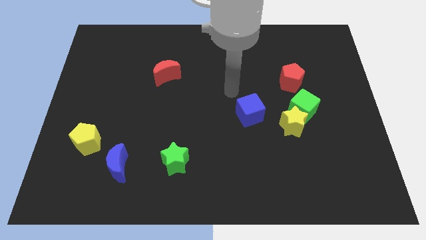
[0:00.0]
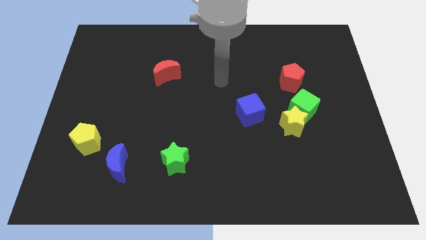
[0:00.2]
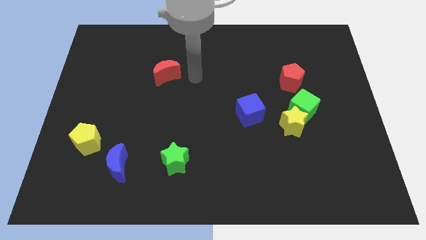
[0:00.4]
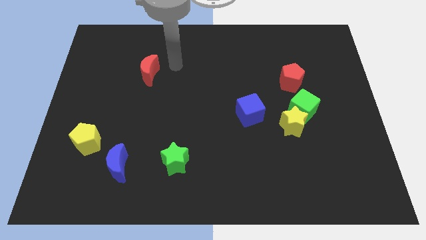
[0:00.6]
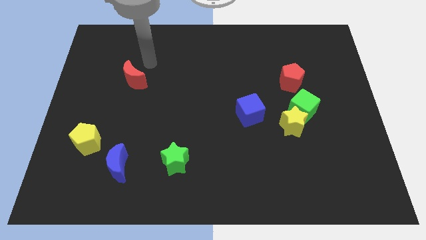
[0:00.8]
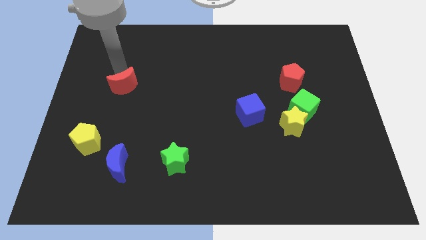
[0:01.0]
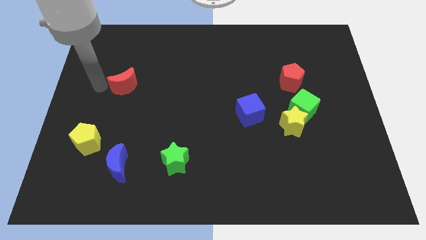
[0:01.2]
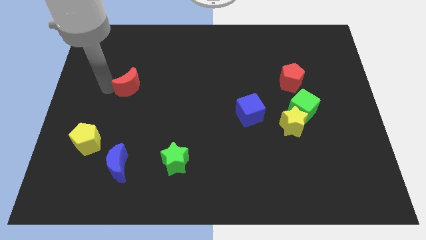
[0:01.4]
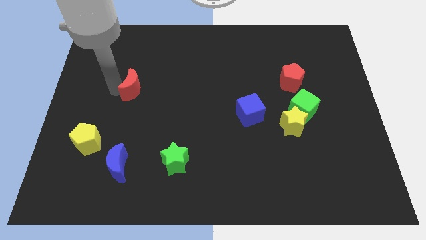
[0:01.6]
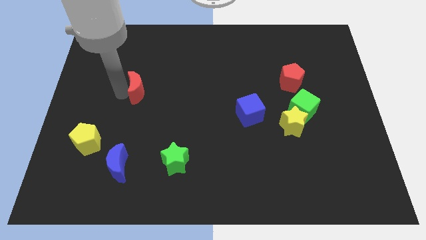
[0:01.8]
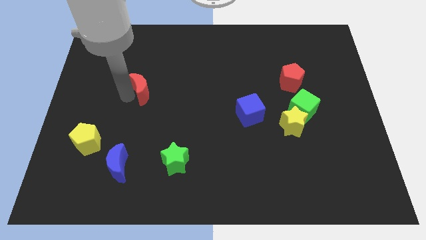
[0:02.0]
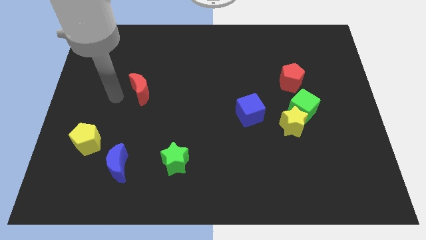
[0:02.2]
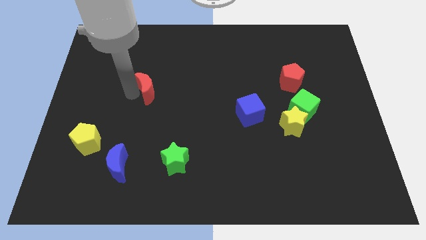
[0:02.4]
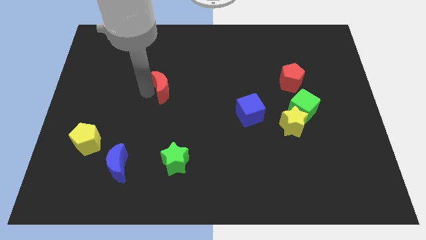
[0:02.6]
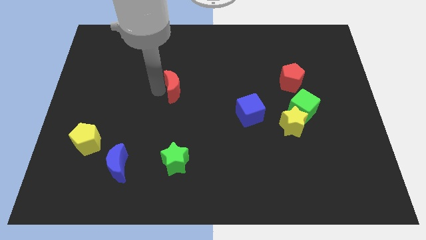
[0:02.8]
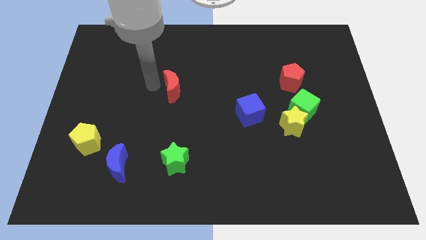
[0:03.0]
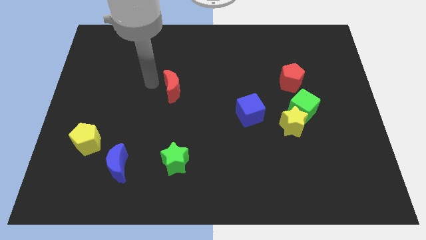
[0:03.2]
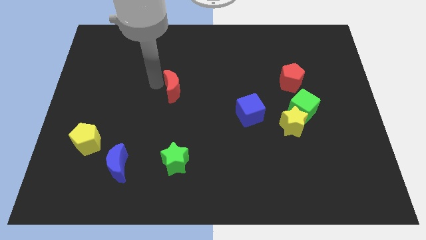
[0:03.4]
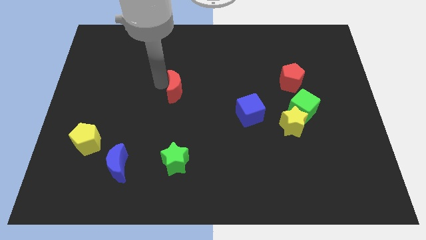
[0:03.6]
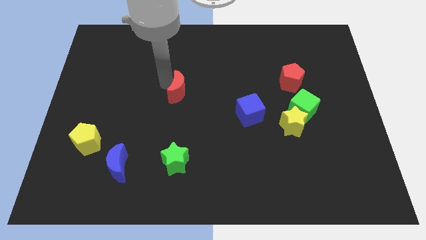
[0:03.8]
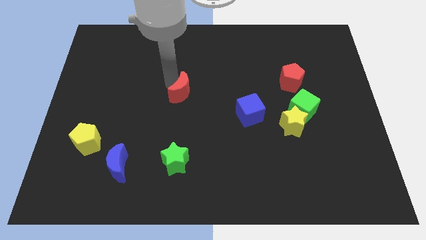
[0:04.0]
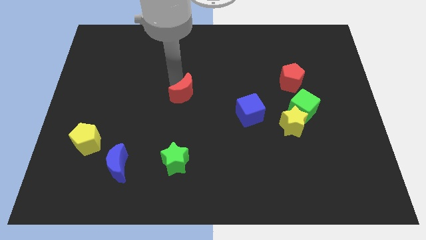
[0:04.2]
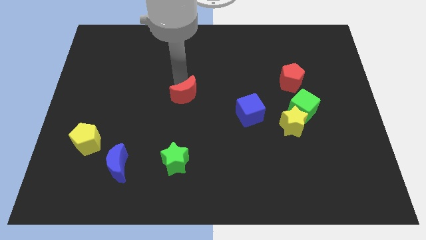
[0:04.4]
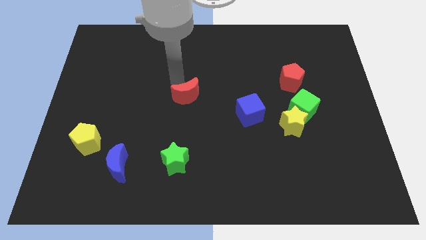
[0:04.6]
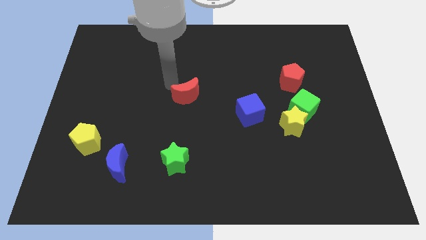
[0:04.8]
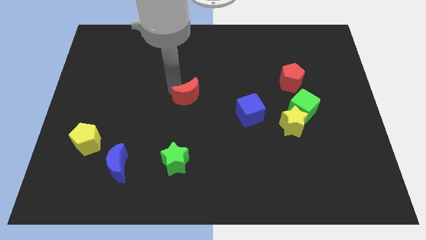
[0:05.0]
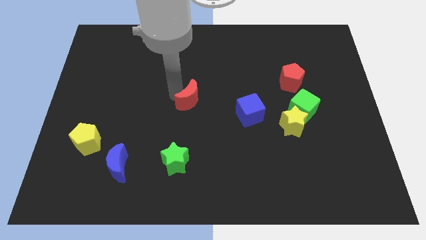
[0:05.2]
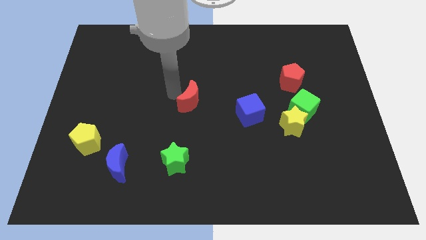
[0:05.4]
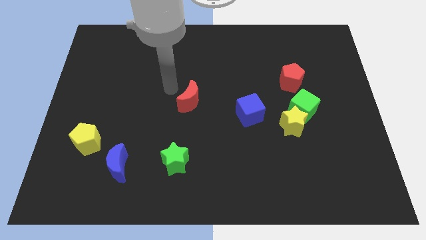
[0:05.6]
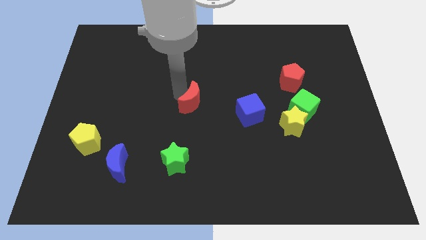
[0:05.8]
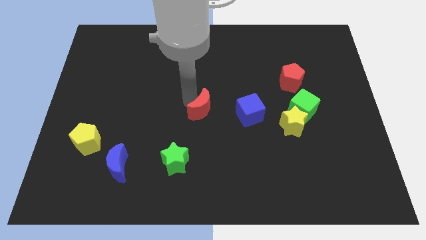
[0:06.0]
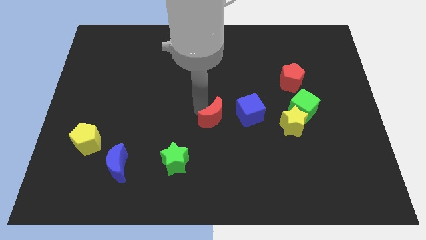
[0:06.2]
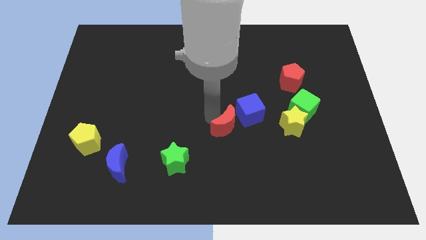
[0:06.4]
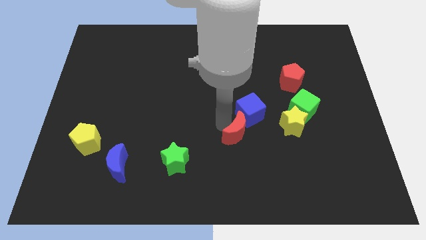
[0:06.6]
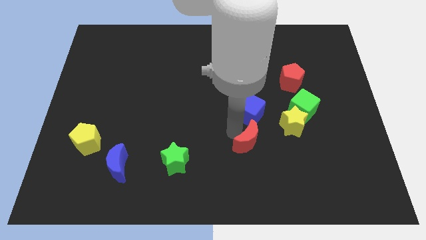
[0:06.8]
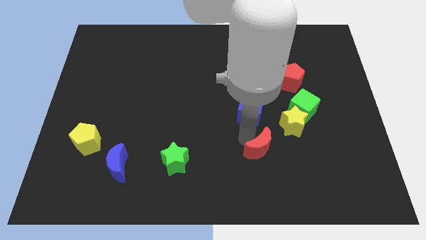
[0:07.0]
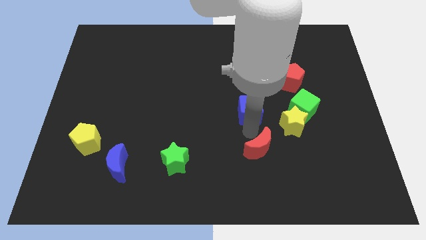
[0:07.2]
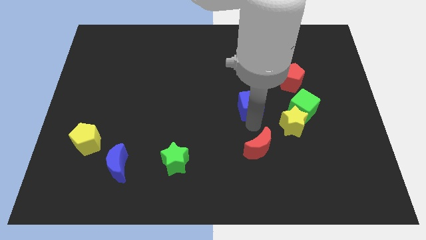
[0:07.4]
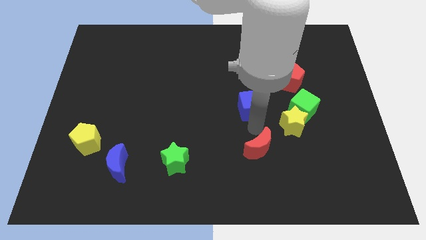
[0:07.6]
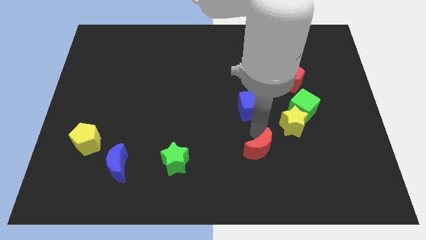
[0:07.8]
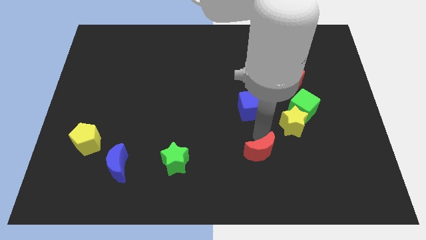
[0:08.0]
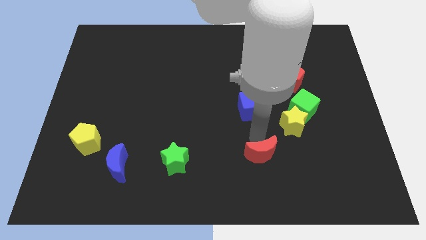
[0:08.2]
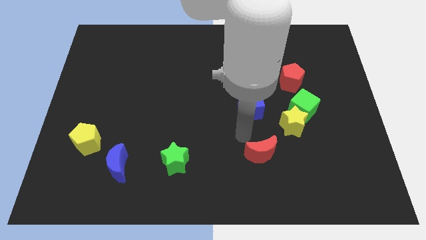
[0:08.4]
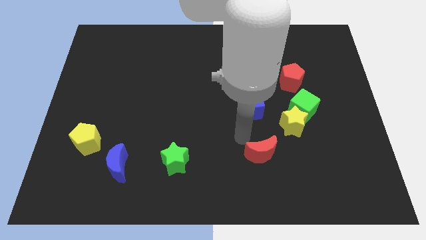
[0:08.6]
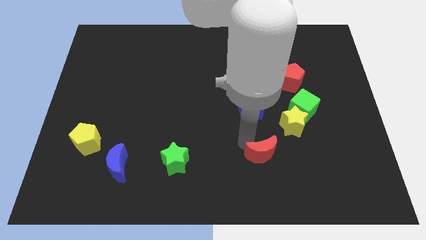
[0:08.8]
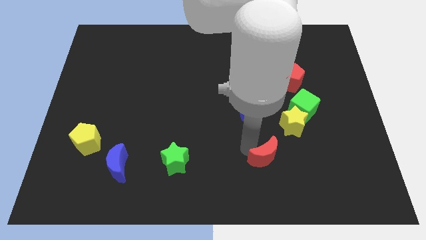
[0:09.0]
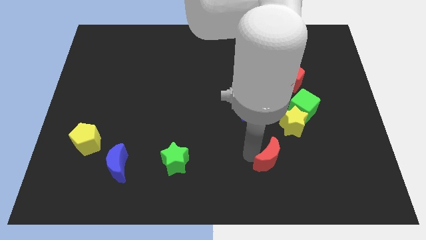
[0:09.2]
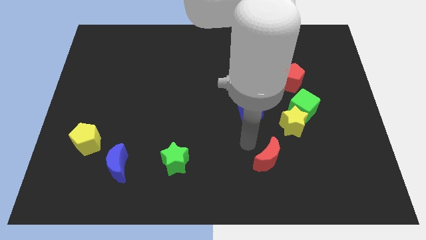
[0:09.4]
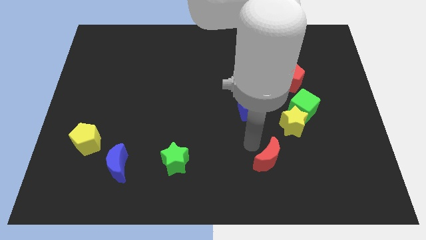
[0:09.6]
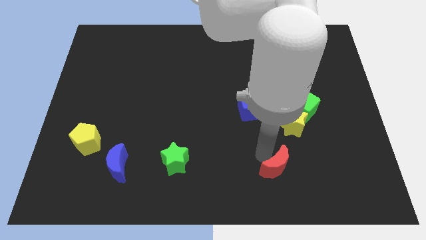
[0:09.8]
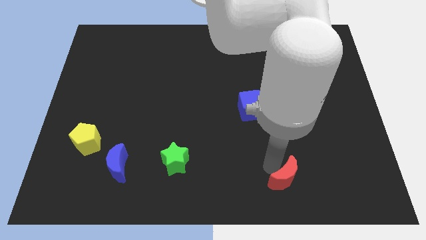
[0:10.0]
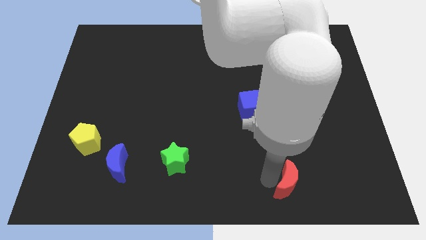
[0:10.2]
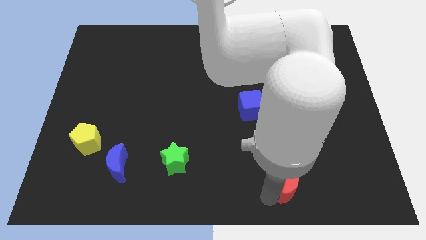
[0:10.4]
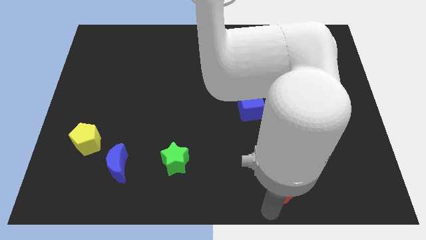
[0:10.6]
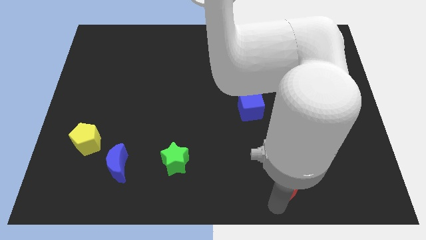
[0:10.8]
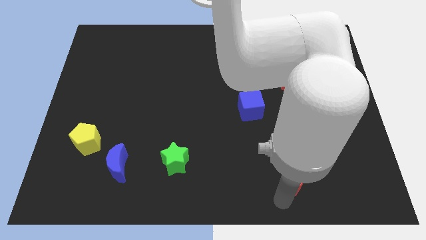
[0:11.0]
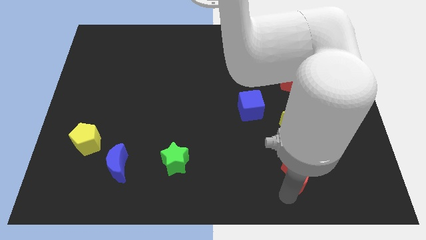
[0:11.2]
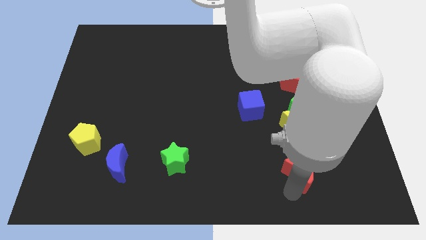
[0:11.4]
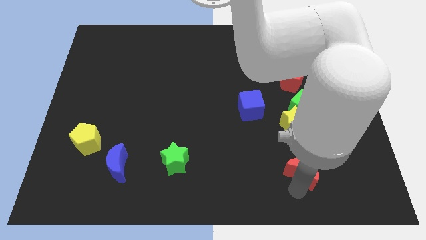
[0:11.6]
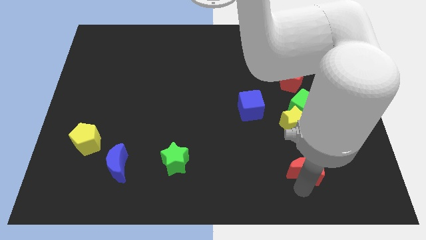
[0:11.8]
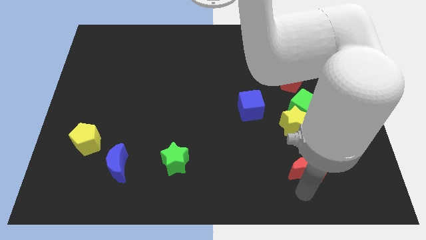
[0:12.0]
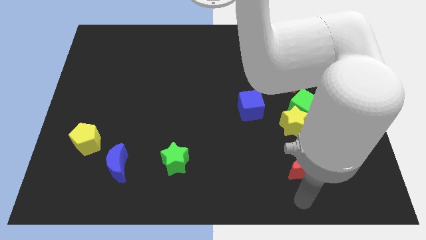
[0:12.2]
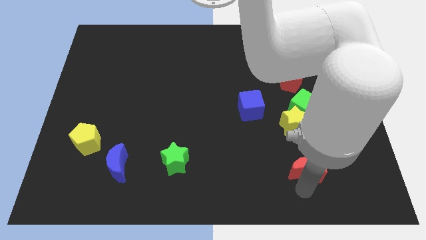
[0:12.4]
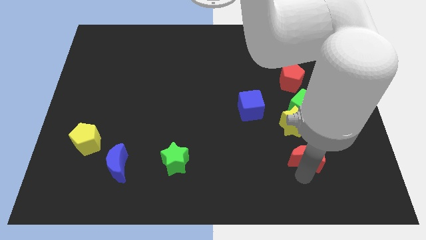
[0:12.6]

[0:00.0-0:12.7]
put the red moon diagonally down and to the right of the yellow star

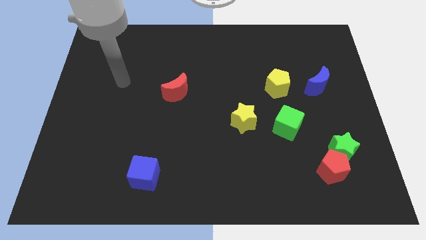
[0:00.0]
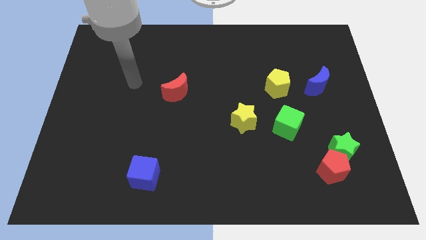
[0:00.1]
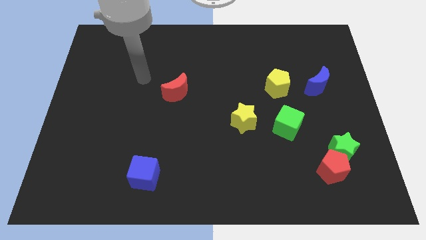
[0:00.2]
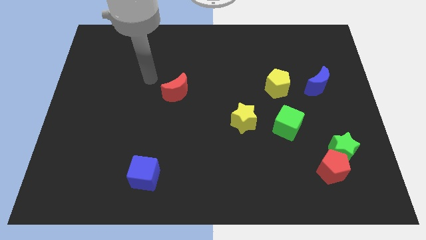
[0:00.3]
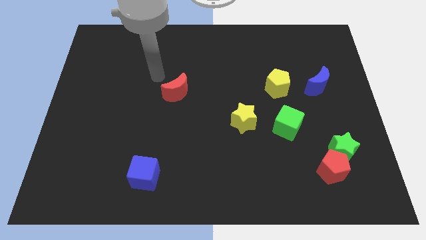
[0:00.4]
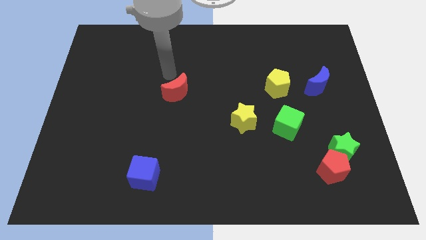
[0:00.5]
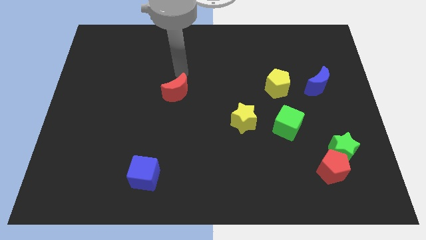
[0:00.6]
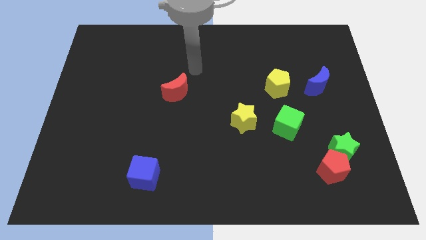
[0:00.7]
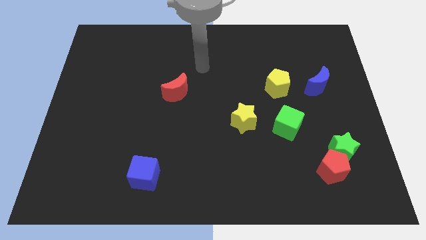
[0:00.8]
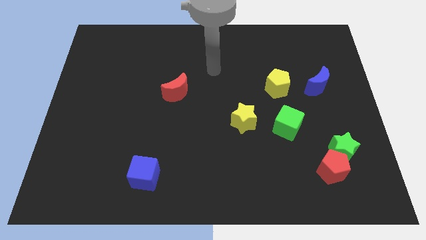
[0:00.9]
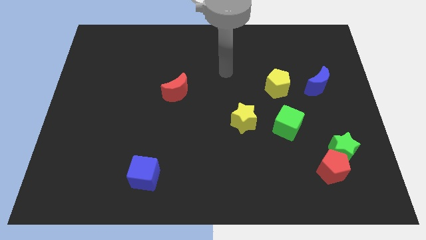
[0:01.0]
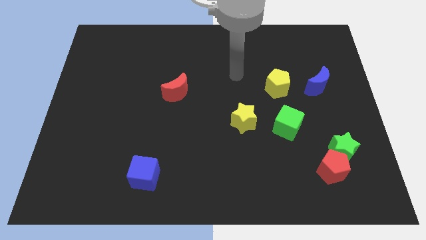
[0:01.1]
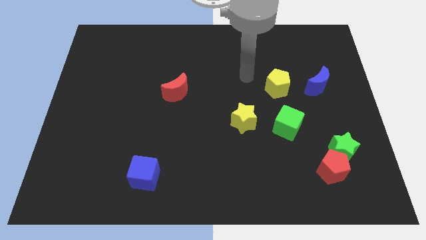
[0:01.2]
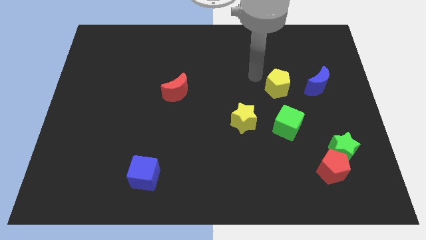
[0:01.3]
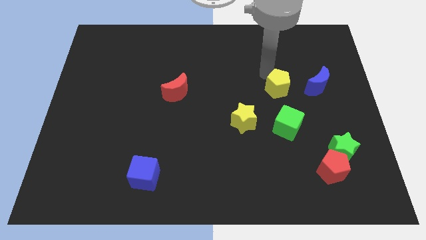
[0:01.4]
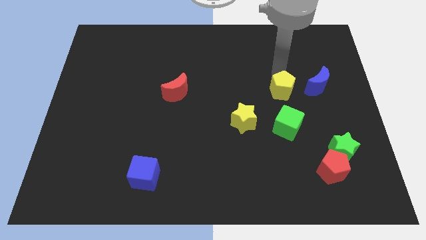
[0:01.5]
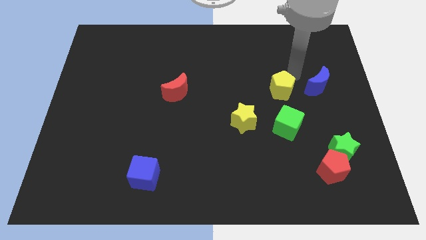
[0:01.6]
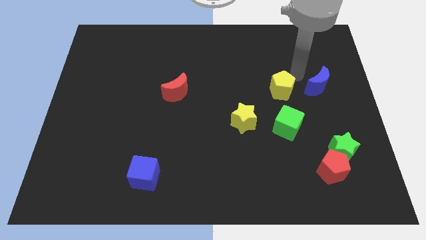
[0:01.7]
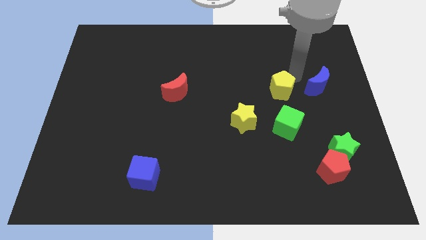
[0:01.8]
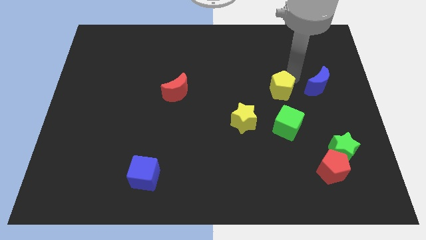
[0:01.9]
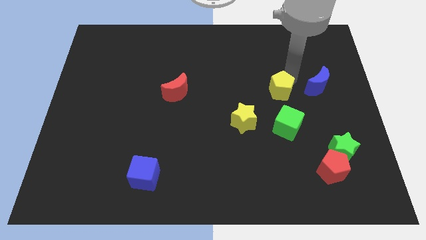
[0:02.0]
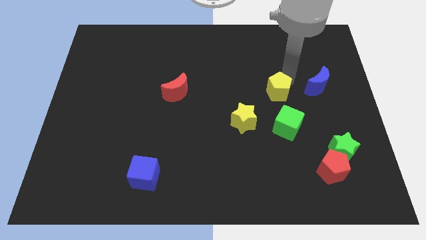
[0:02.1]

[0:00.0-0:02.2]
push the yellow pentagon to the top right of the yellow star
